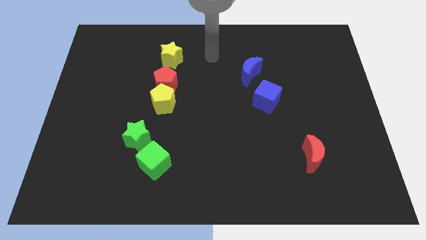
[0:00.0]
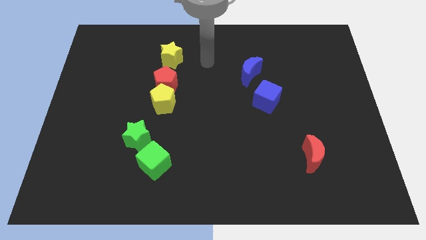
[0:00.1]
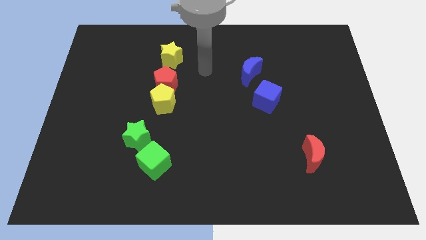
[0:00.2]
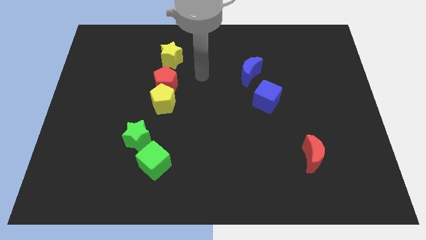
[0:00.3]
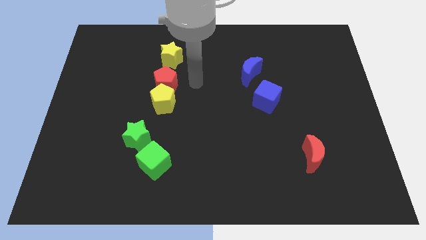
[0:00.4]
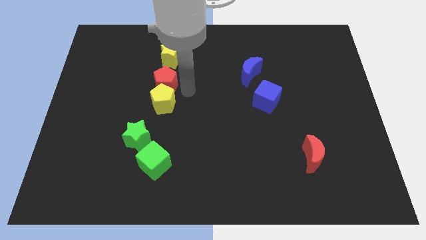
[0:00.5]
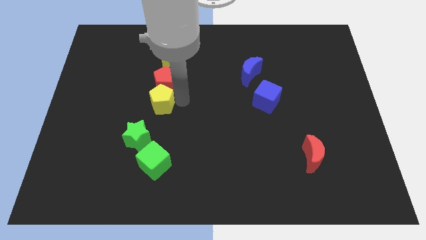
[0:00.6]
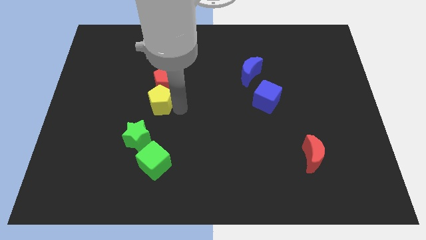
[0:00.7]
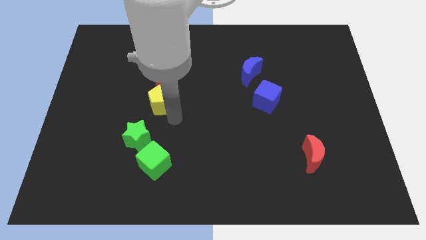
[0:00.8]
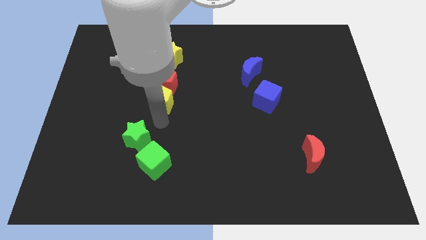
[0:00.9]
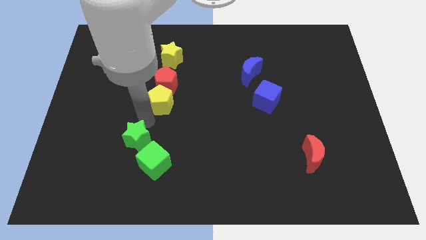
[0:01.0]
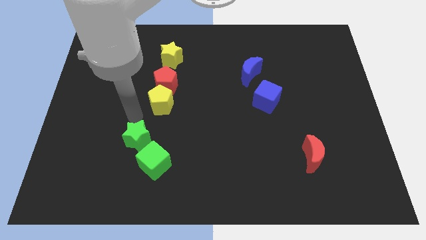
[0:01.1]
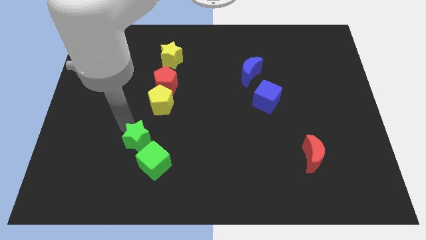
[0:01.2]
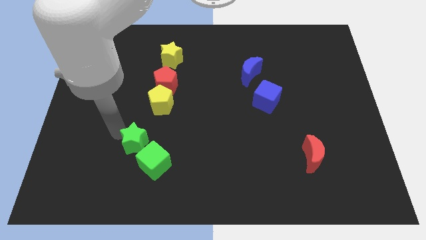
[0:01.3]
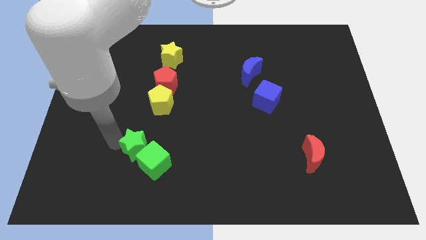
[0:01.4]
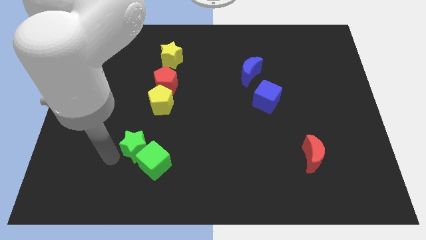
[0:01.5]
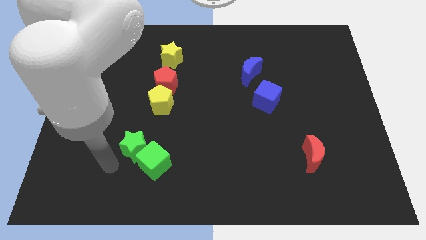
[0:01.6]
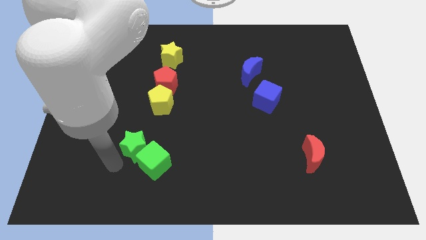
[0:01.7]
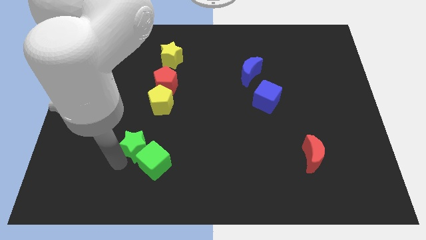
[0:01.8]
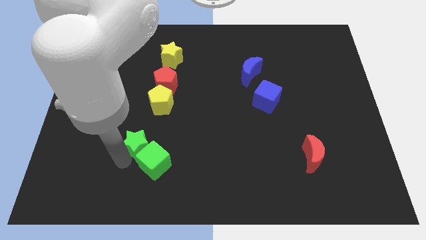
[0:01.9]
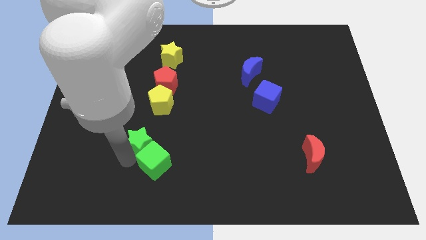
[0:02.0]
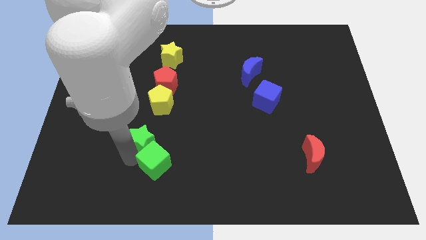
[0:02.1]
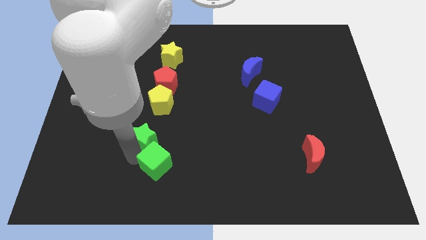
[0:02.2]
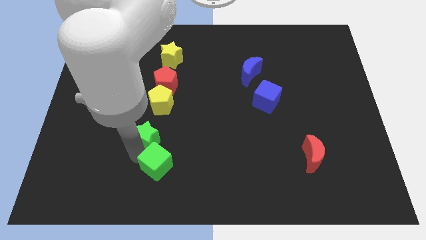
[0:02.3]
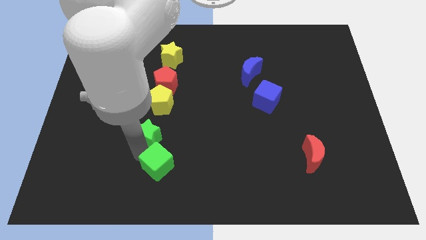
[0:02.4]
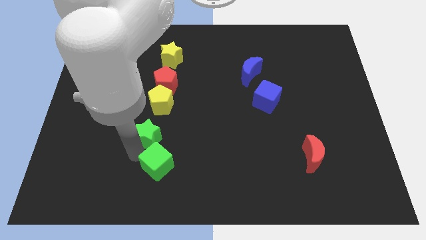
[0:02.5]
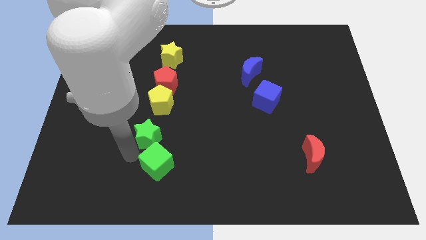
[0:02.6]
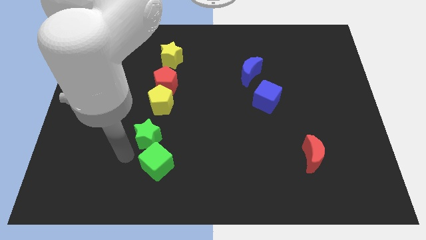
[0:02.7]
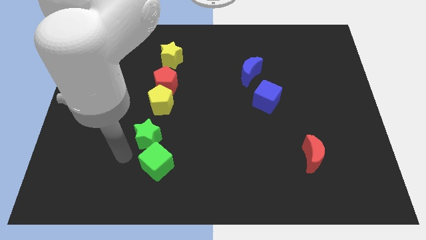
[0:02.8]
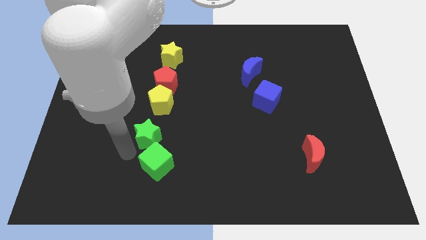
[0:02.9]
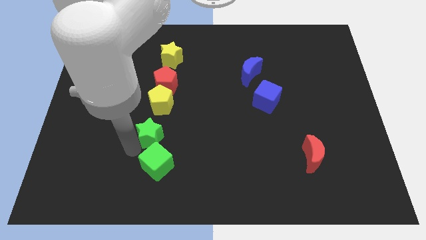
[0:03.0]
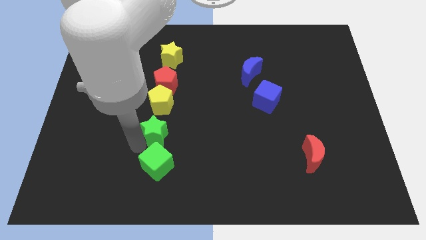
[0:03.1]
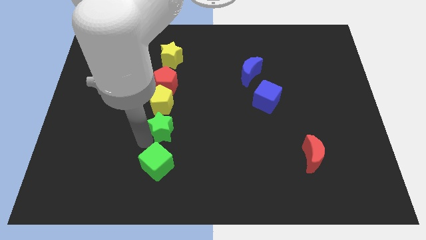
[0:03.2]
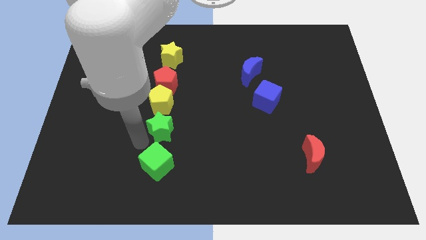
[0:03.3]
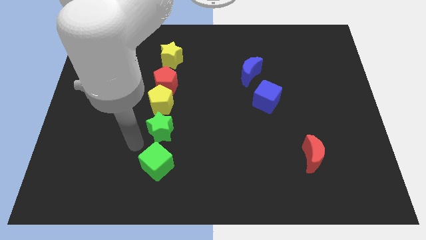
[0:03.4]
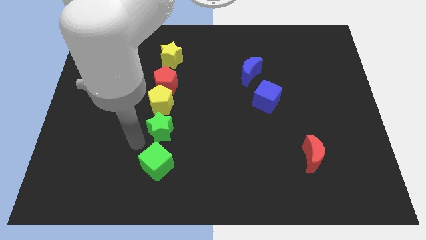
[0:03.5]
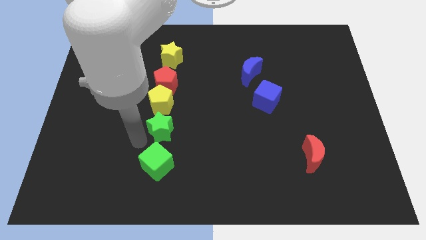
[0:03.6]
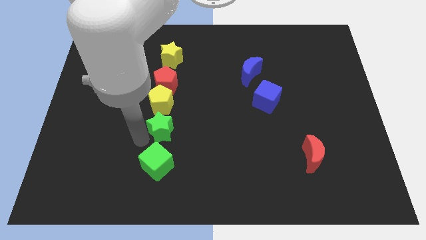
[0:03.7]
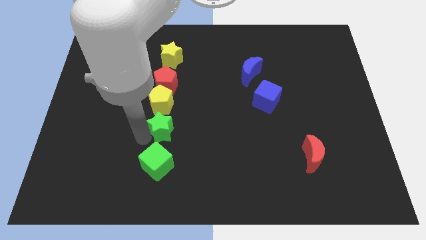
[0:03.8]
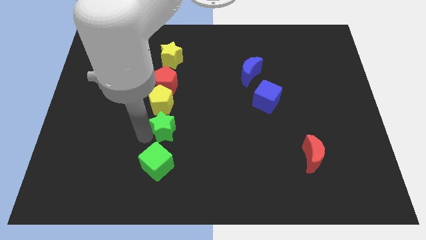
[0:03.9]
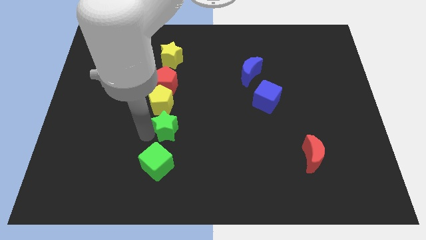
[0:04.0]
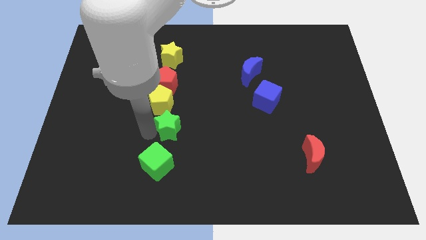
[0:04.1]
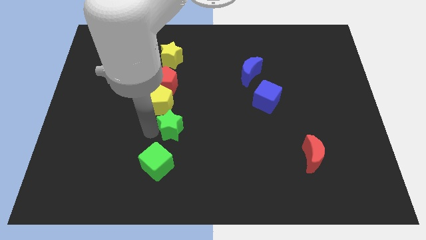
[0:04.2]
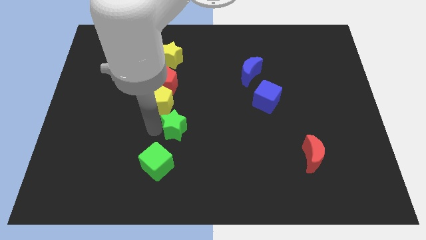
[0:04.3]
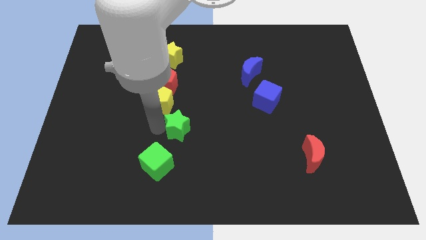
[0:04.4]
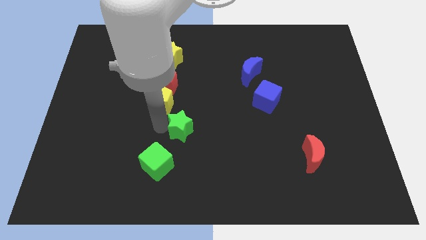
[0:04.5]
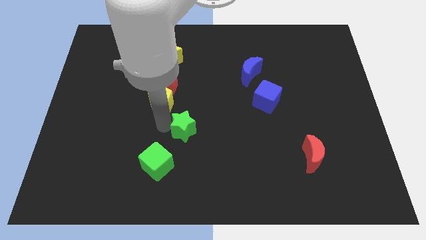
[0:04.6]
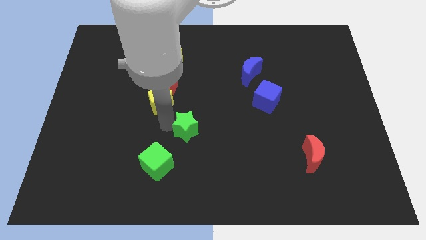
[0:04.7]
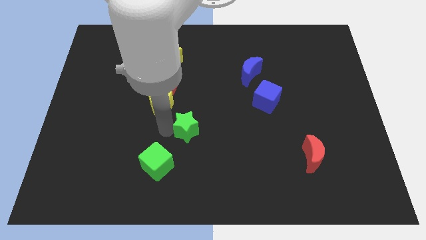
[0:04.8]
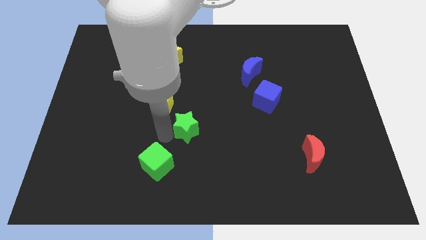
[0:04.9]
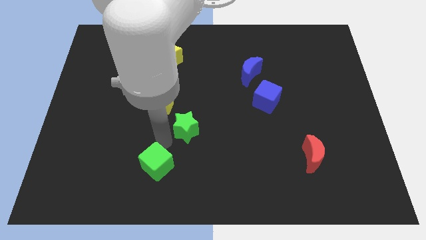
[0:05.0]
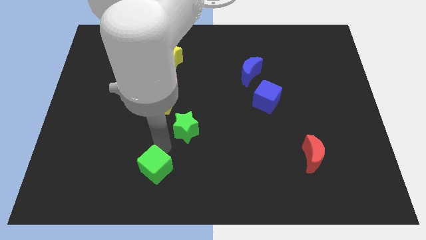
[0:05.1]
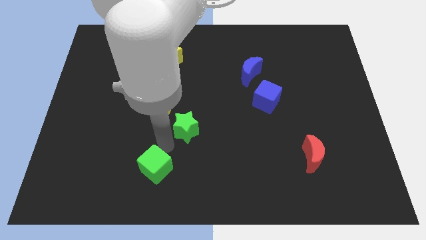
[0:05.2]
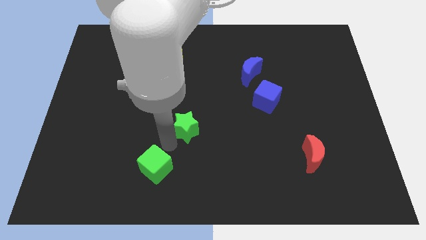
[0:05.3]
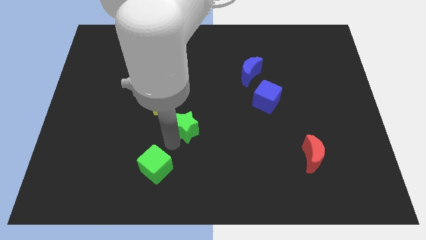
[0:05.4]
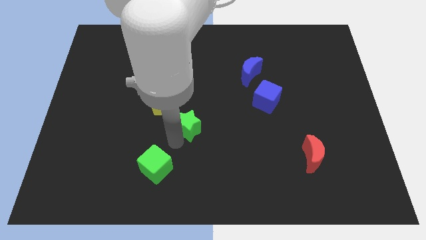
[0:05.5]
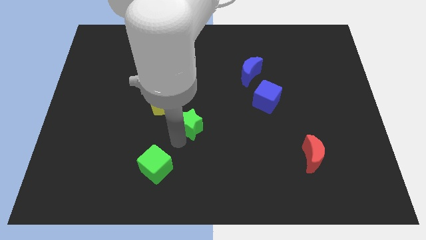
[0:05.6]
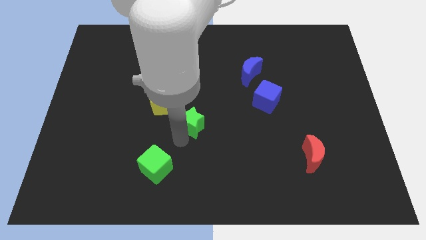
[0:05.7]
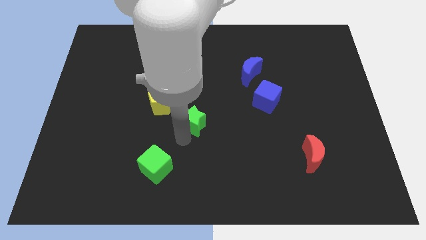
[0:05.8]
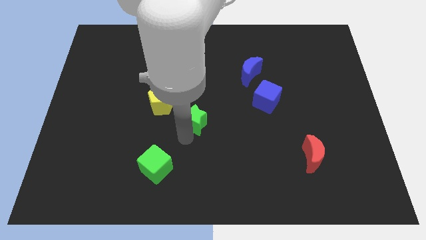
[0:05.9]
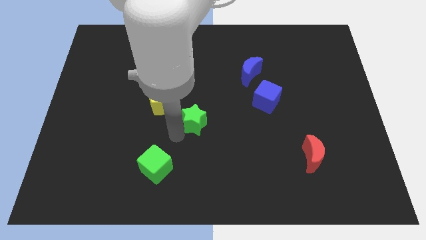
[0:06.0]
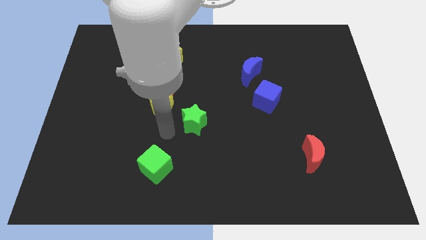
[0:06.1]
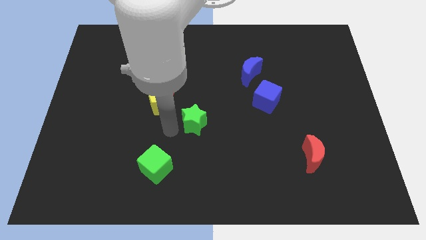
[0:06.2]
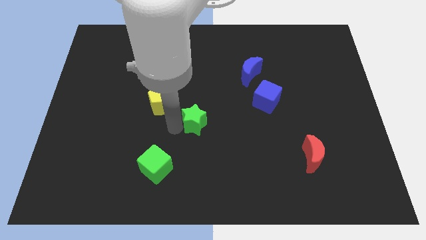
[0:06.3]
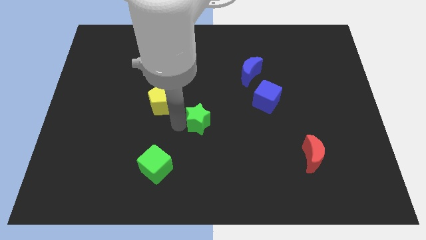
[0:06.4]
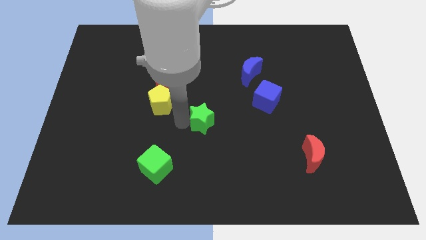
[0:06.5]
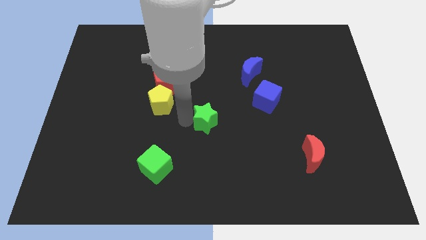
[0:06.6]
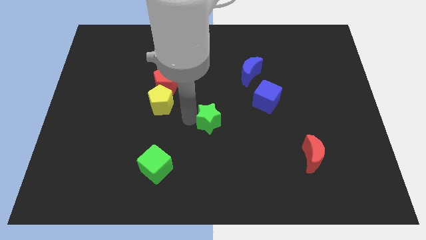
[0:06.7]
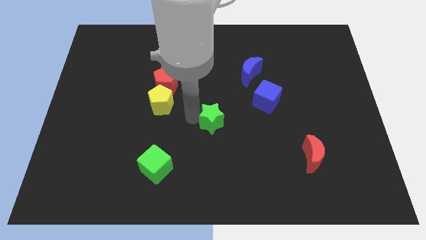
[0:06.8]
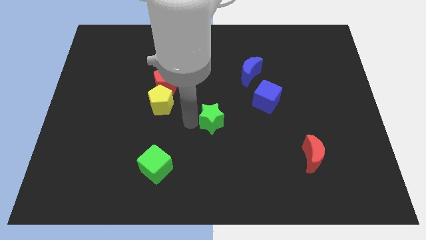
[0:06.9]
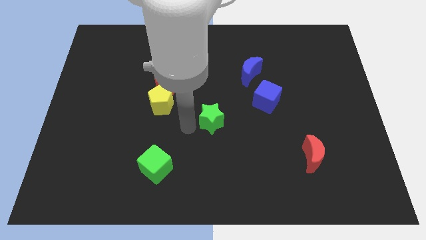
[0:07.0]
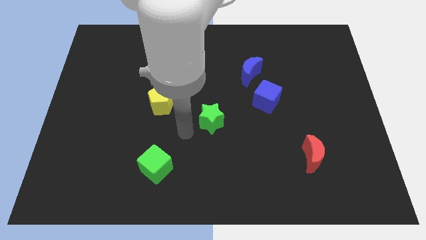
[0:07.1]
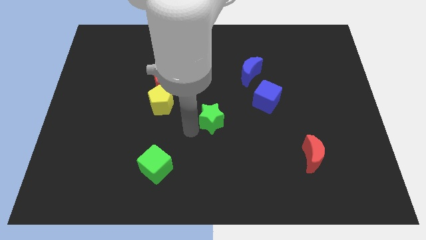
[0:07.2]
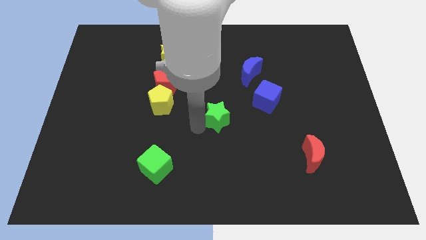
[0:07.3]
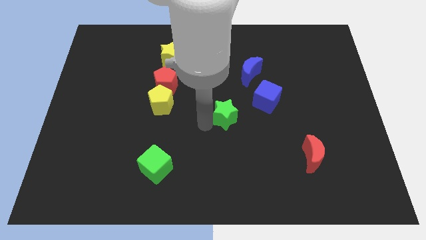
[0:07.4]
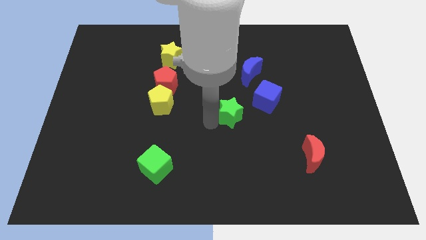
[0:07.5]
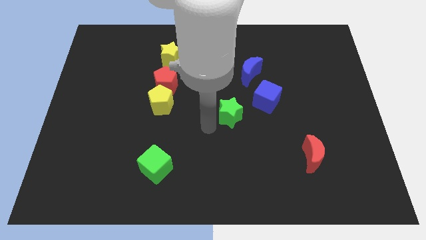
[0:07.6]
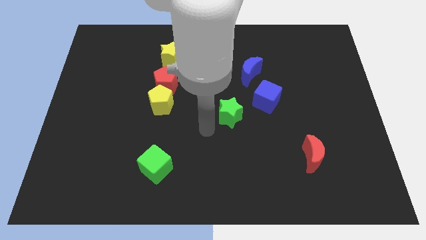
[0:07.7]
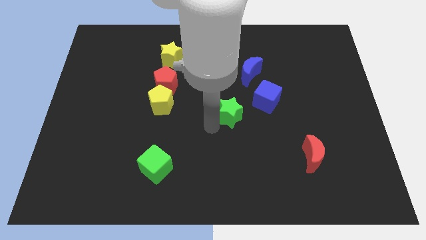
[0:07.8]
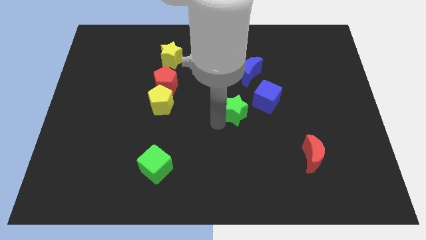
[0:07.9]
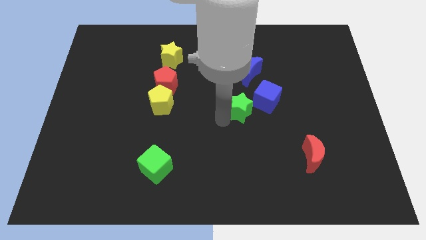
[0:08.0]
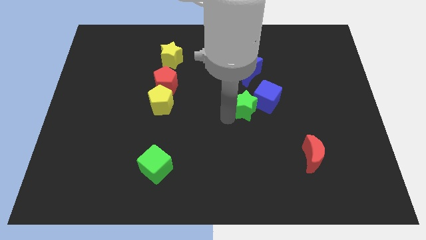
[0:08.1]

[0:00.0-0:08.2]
slide the green star next to the blue cube
